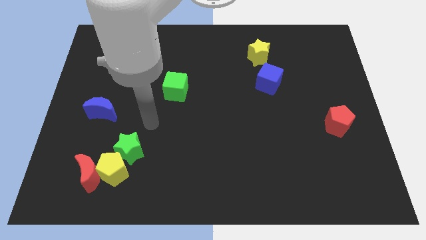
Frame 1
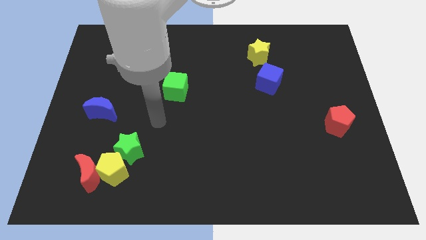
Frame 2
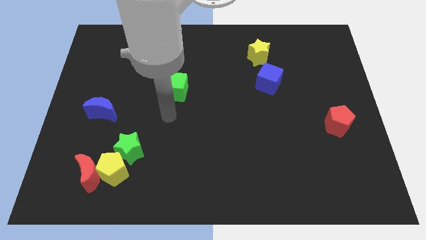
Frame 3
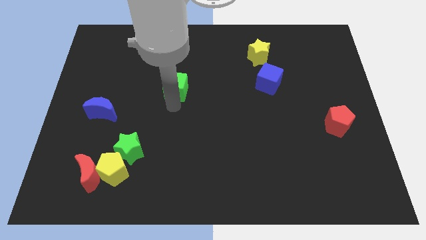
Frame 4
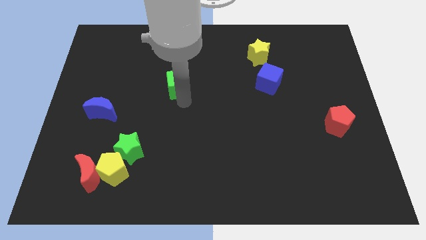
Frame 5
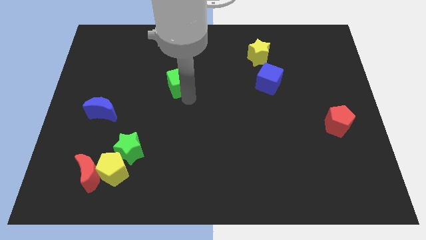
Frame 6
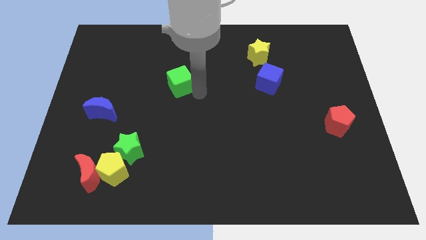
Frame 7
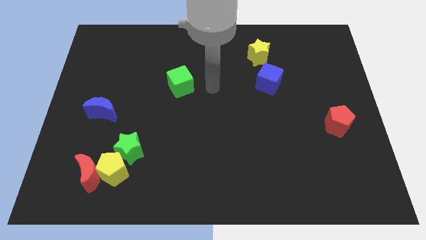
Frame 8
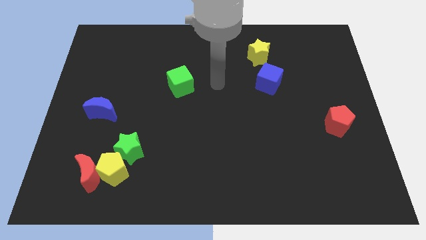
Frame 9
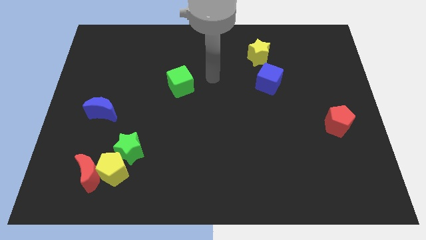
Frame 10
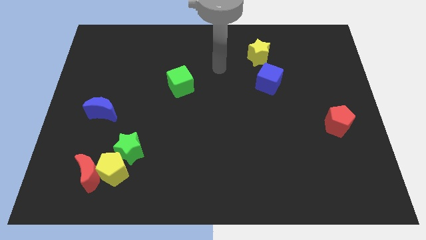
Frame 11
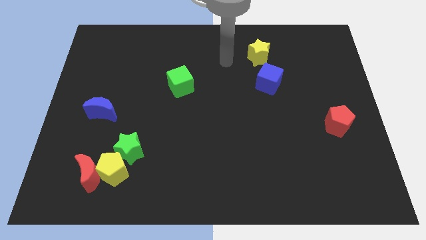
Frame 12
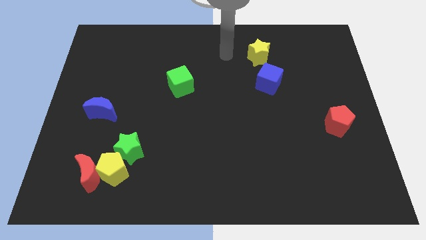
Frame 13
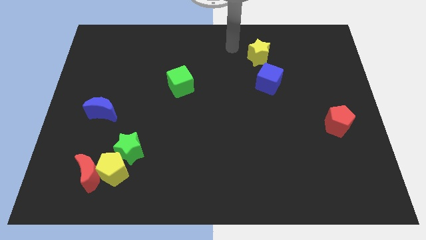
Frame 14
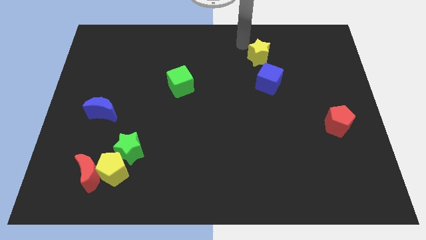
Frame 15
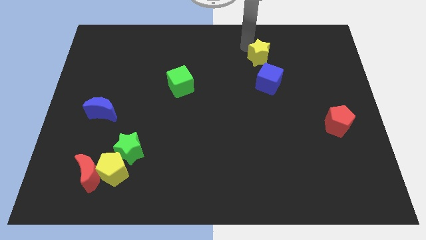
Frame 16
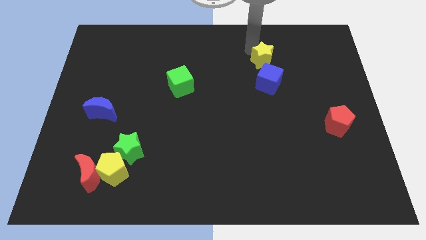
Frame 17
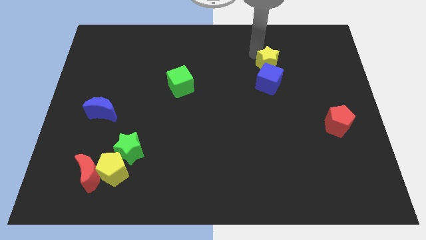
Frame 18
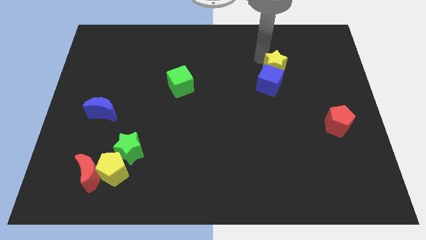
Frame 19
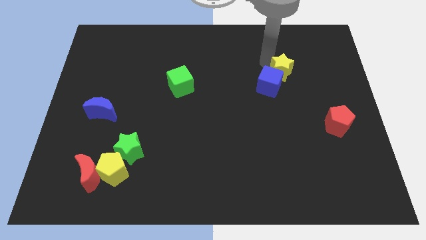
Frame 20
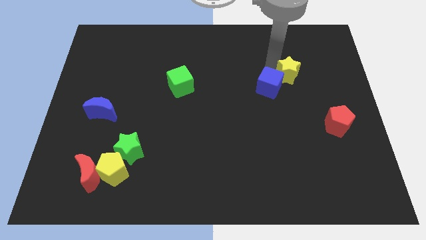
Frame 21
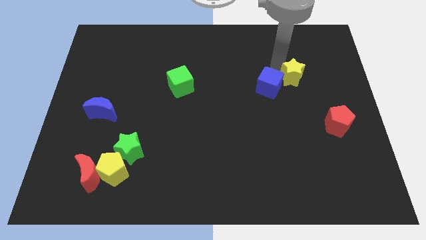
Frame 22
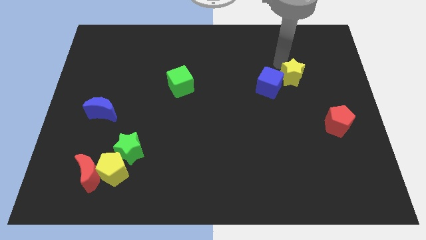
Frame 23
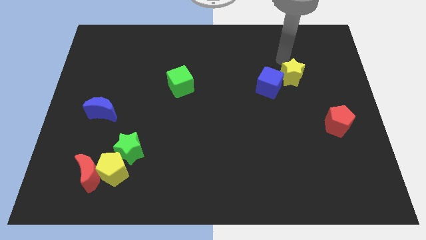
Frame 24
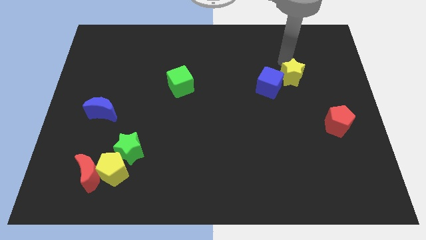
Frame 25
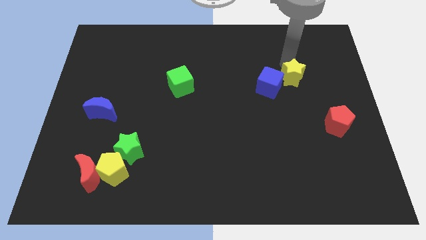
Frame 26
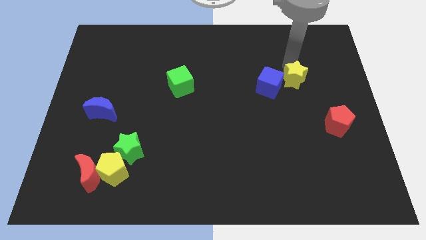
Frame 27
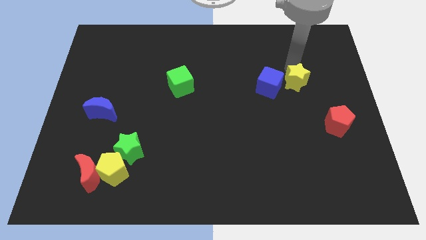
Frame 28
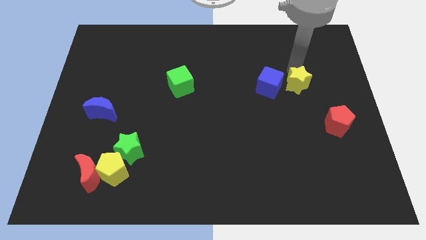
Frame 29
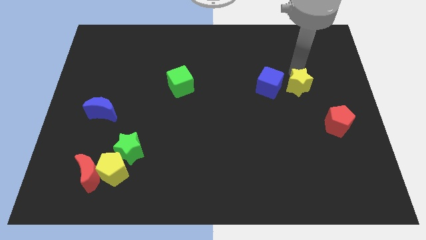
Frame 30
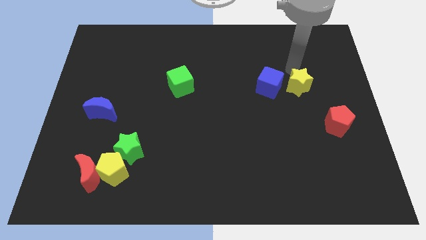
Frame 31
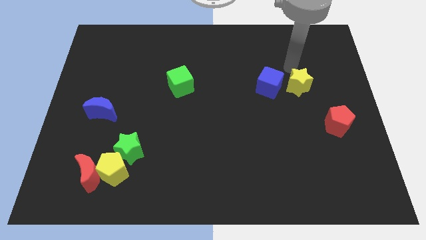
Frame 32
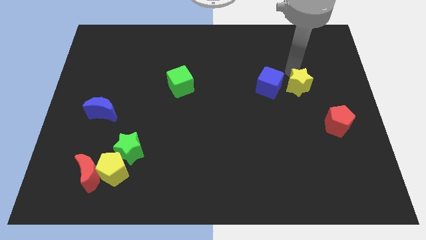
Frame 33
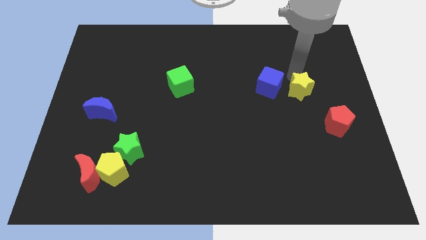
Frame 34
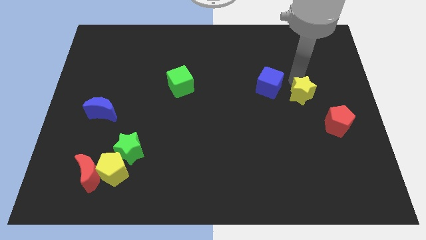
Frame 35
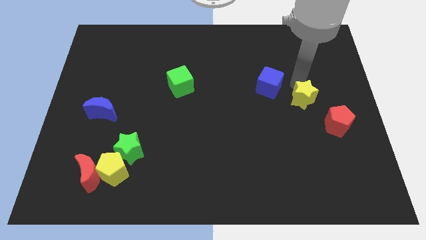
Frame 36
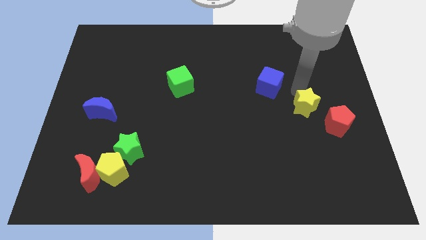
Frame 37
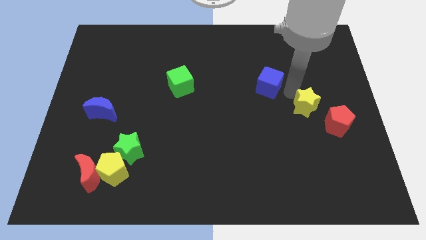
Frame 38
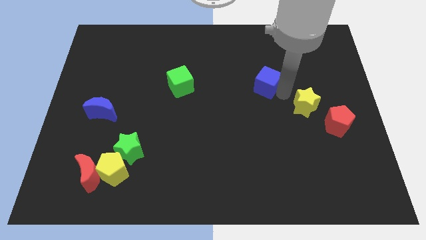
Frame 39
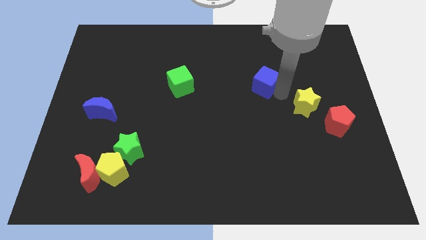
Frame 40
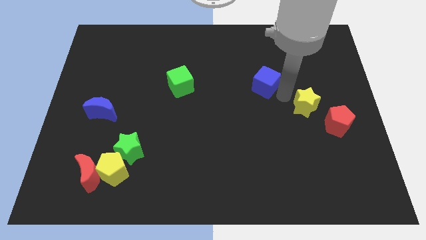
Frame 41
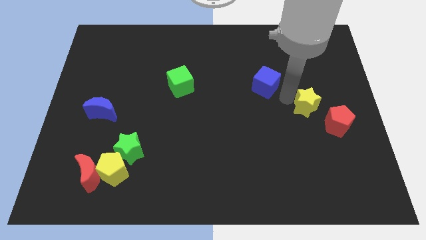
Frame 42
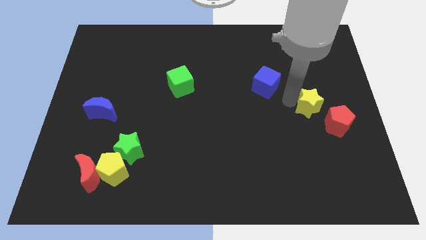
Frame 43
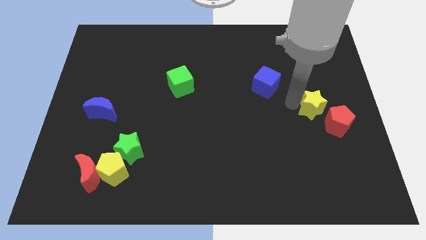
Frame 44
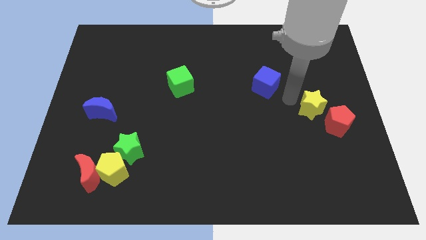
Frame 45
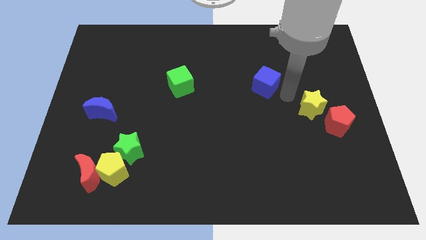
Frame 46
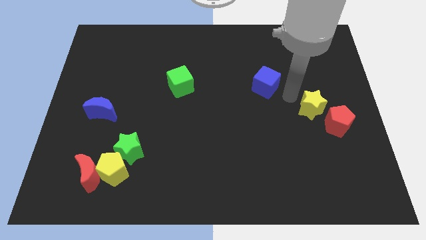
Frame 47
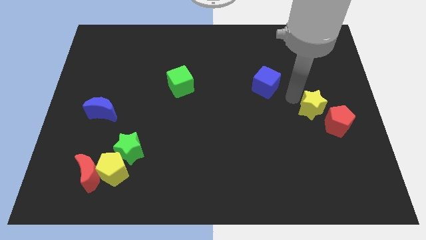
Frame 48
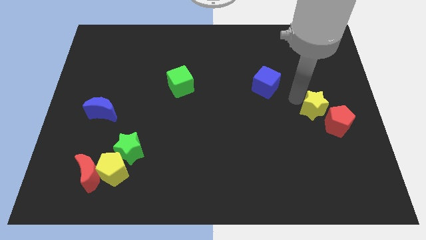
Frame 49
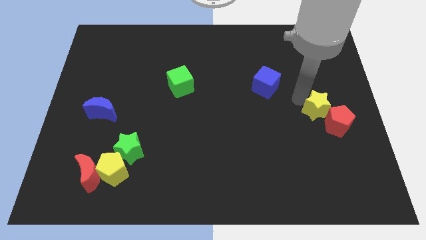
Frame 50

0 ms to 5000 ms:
slide the yellow star next to the red pentagon

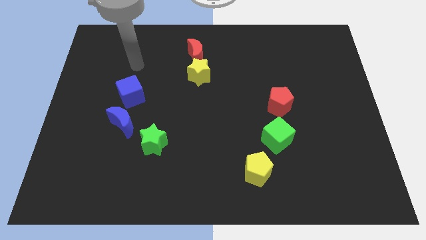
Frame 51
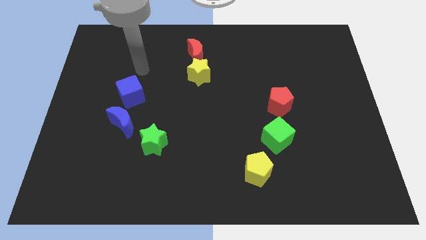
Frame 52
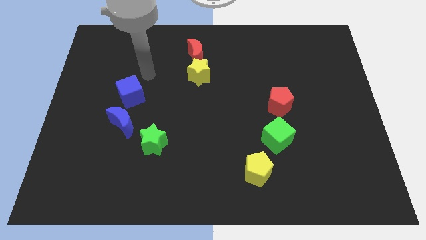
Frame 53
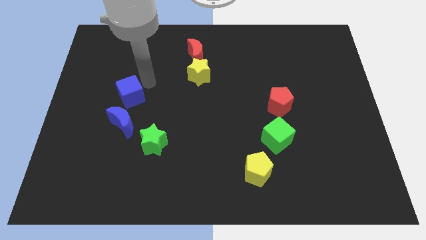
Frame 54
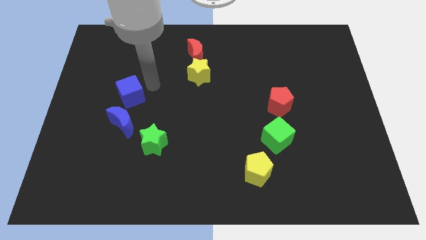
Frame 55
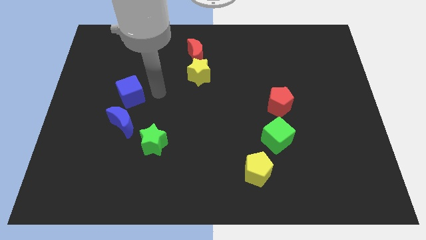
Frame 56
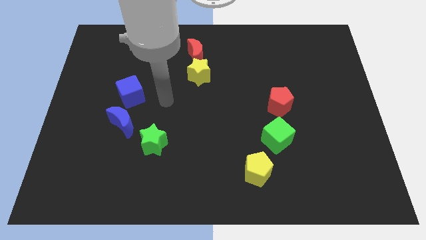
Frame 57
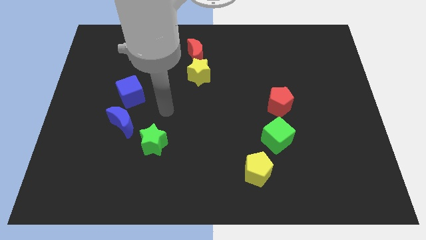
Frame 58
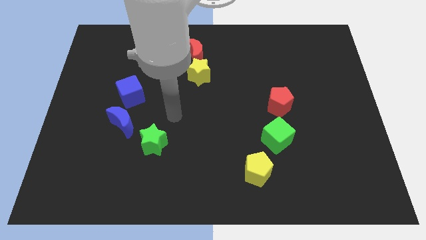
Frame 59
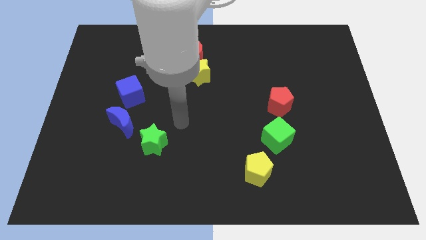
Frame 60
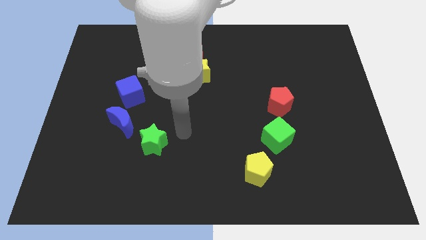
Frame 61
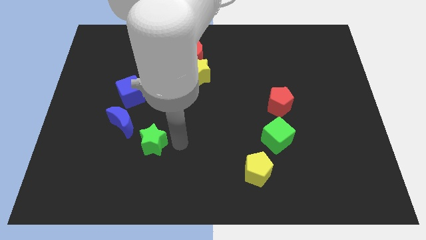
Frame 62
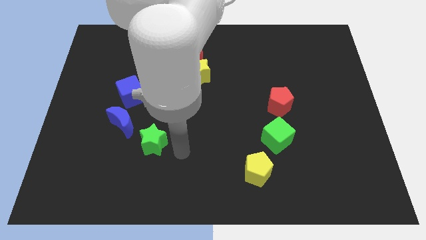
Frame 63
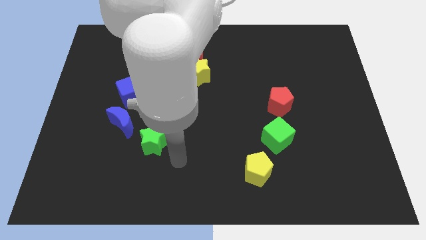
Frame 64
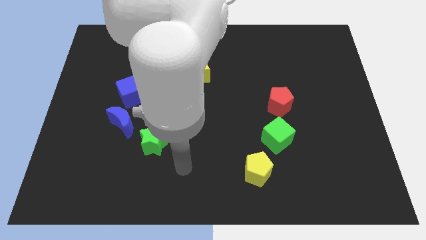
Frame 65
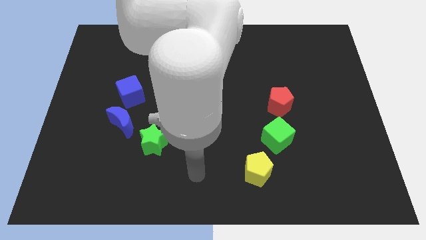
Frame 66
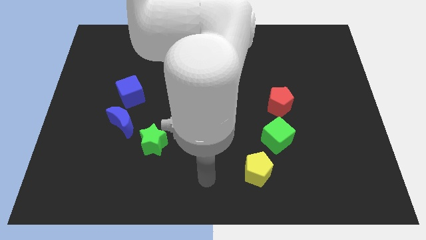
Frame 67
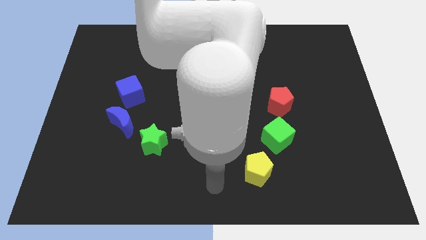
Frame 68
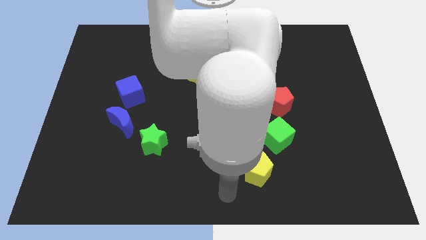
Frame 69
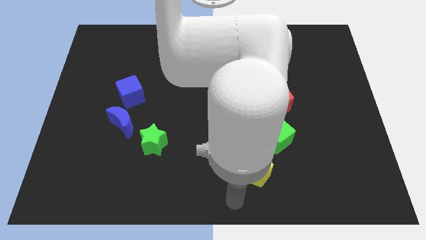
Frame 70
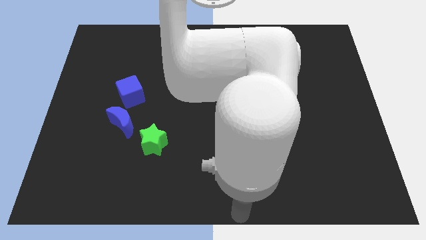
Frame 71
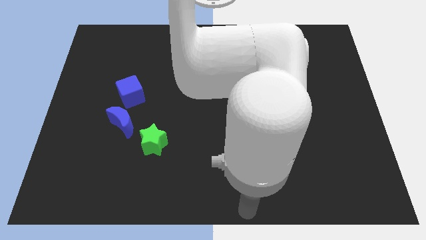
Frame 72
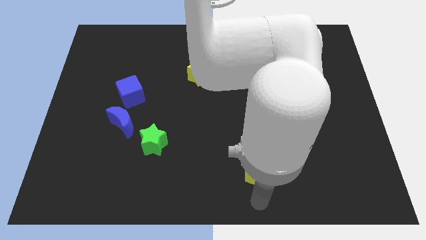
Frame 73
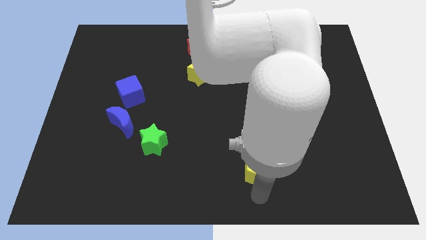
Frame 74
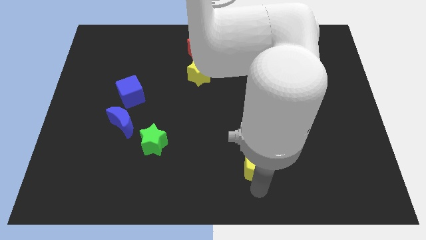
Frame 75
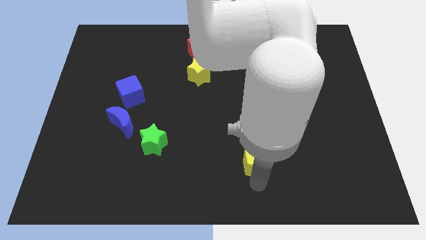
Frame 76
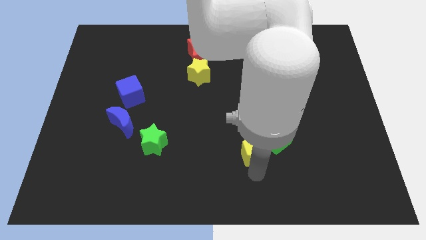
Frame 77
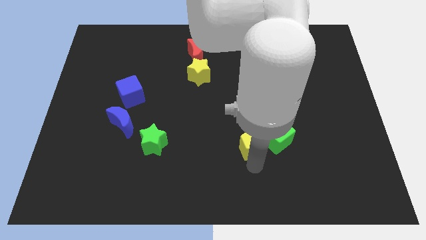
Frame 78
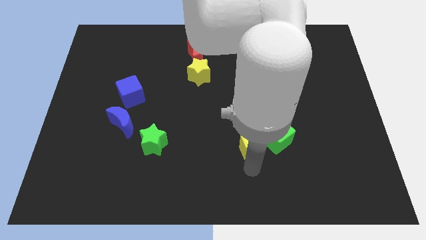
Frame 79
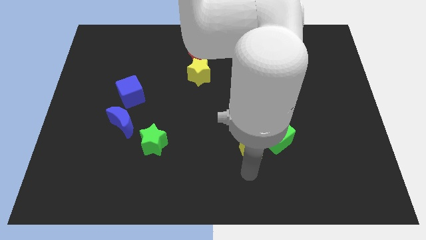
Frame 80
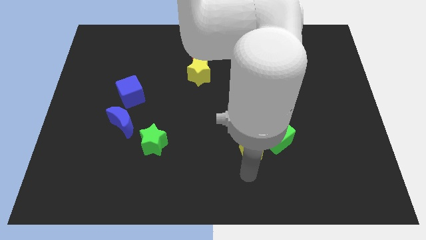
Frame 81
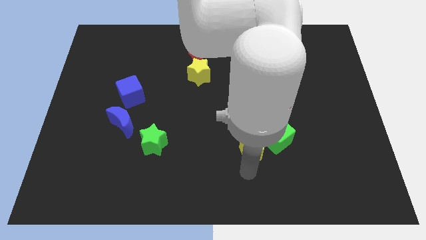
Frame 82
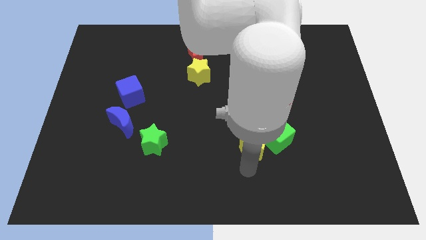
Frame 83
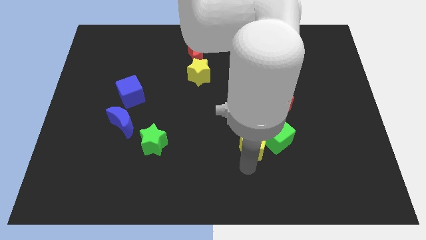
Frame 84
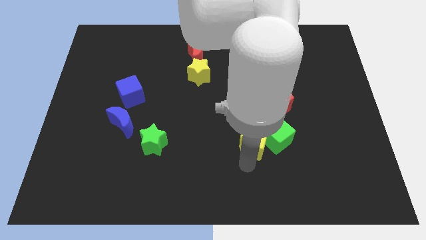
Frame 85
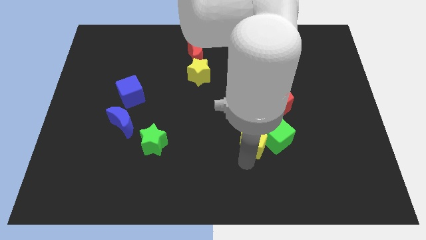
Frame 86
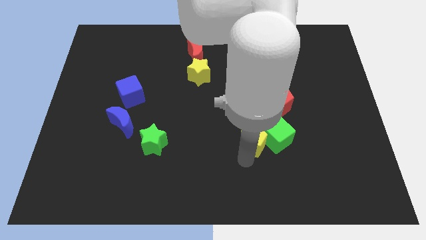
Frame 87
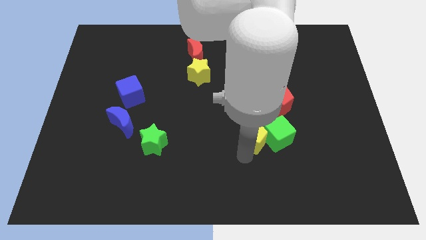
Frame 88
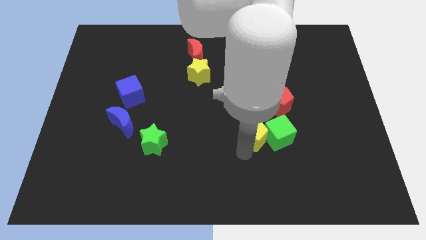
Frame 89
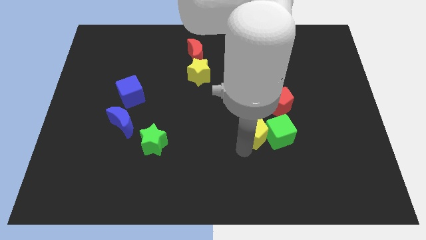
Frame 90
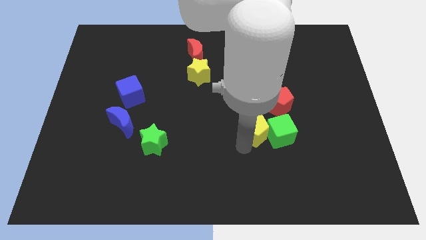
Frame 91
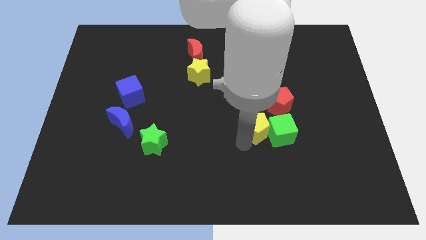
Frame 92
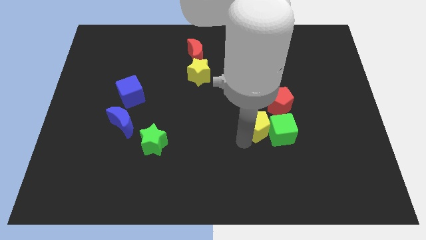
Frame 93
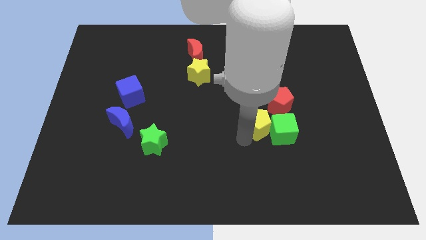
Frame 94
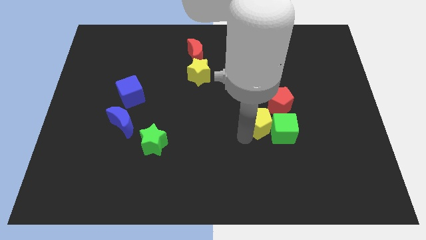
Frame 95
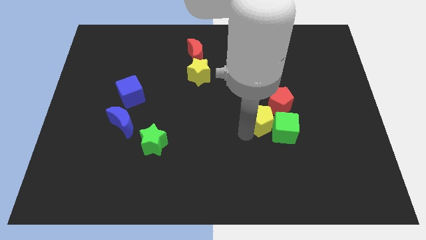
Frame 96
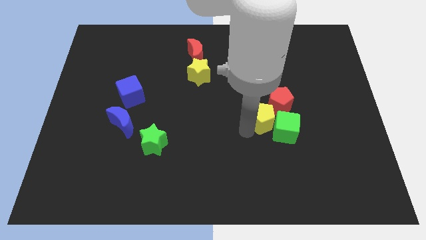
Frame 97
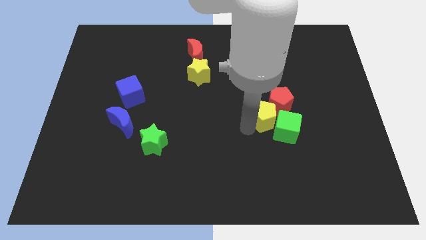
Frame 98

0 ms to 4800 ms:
move the yellow pentagon to the red pentagon
